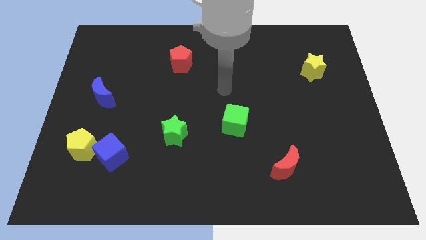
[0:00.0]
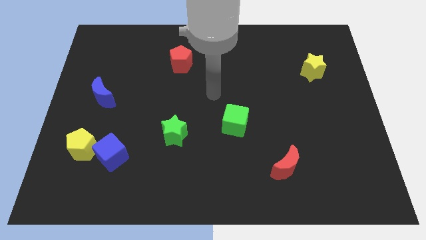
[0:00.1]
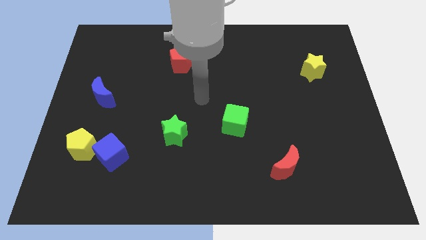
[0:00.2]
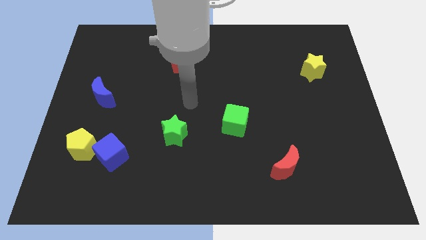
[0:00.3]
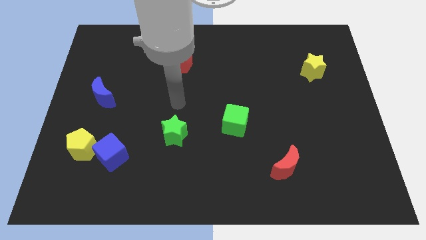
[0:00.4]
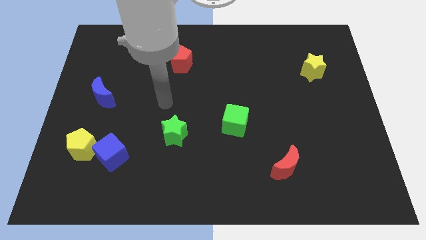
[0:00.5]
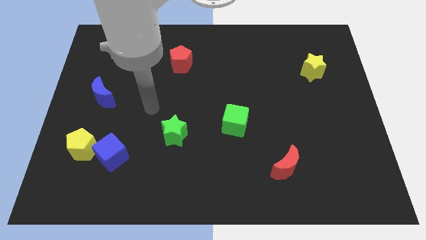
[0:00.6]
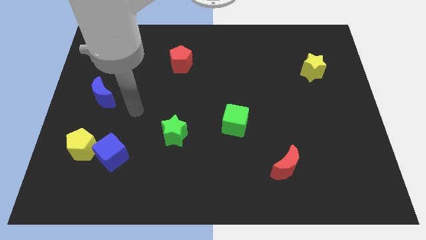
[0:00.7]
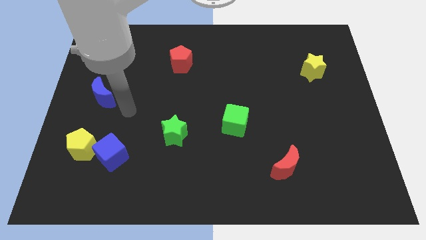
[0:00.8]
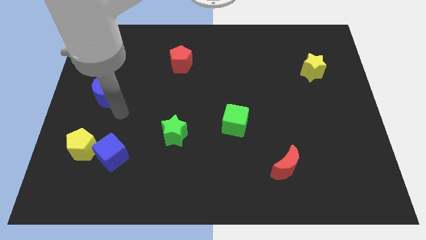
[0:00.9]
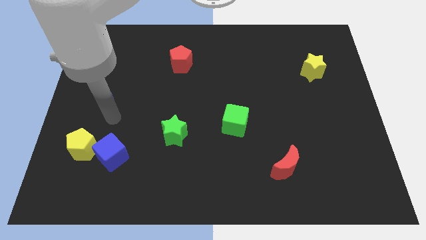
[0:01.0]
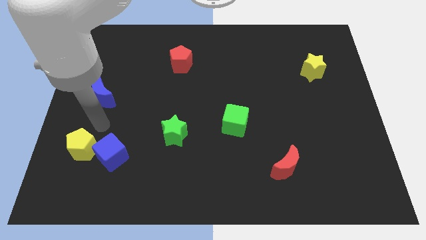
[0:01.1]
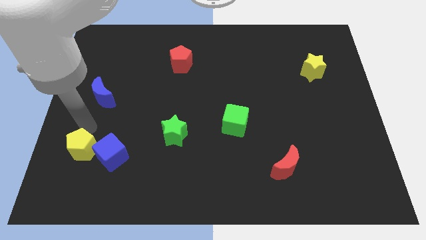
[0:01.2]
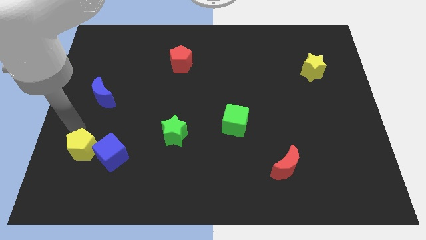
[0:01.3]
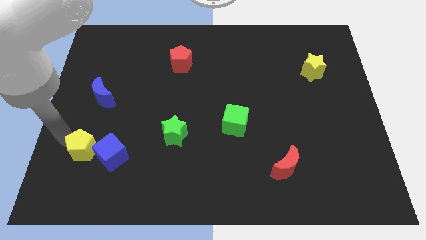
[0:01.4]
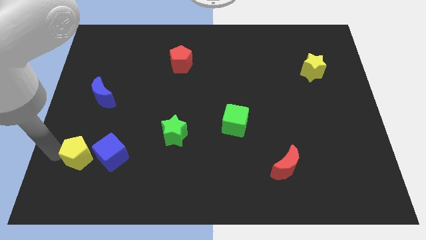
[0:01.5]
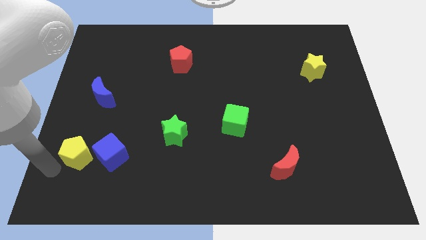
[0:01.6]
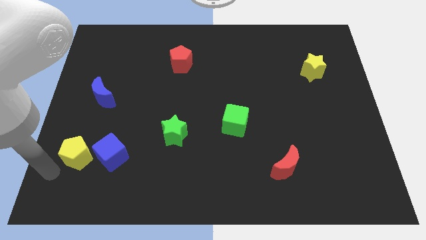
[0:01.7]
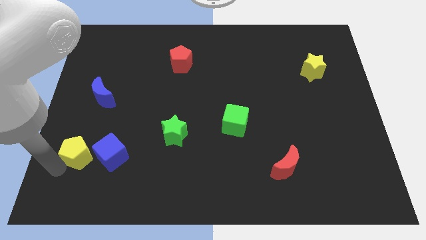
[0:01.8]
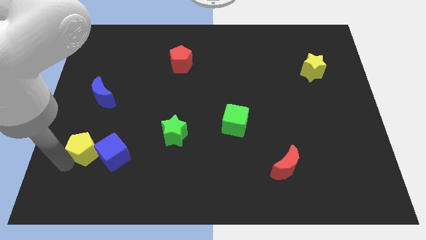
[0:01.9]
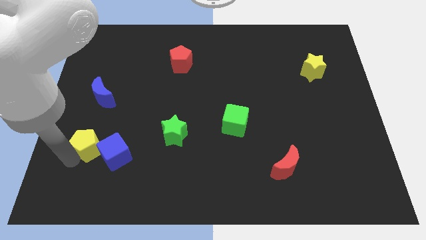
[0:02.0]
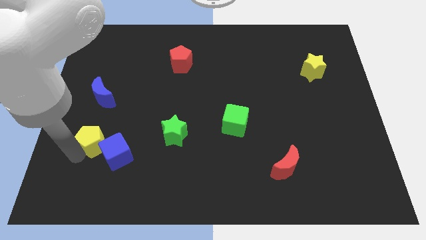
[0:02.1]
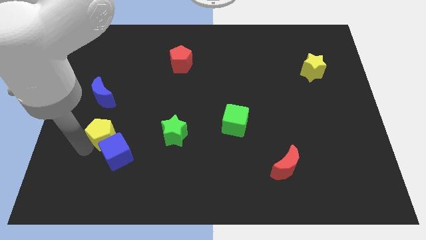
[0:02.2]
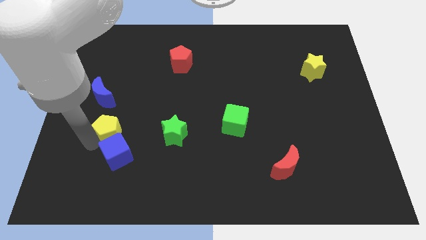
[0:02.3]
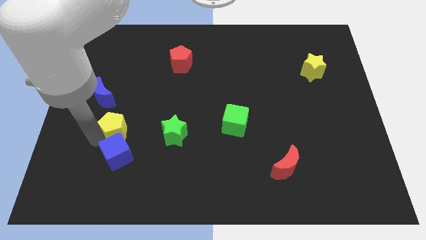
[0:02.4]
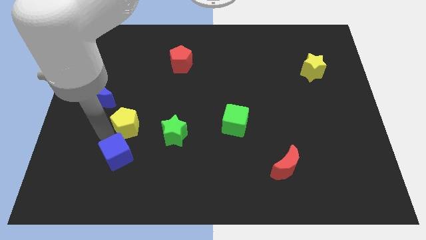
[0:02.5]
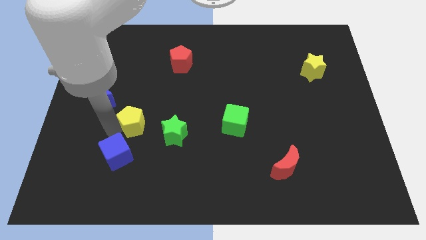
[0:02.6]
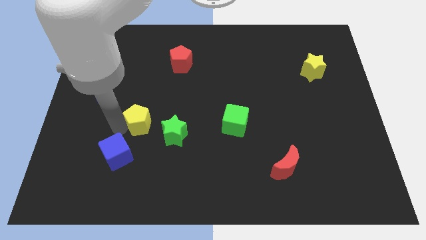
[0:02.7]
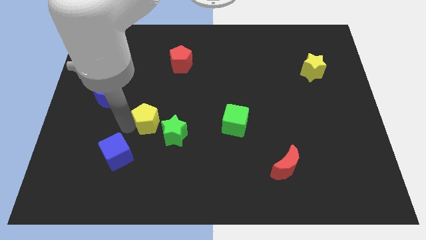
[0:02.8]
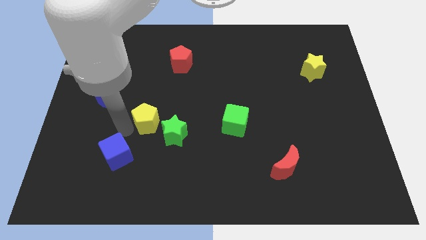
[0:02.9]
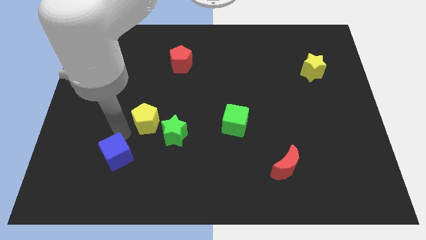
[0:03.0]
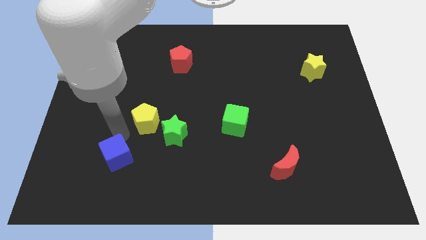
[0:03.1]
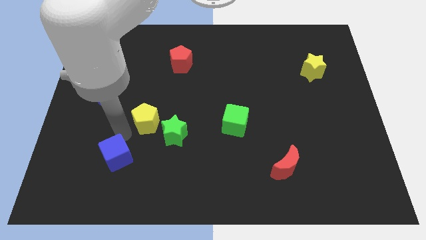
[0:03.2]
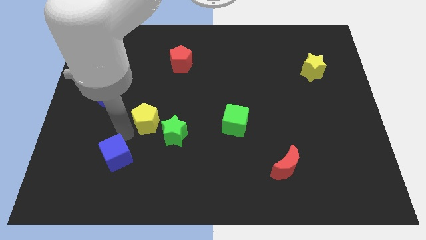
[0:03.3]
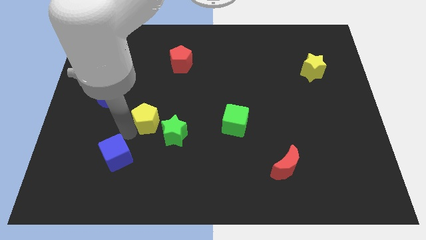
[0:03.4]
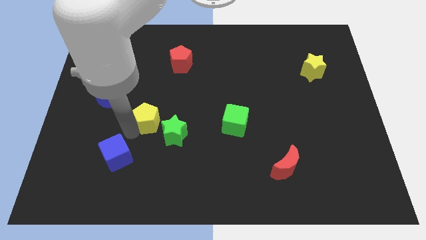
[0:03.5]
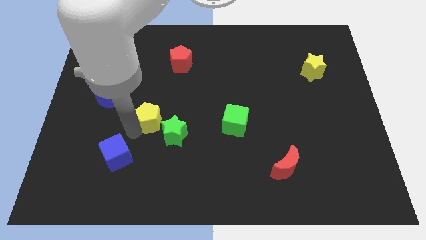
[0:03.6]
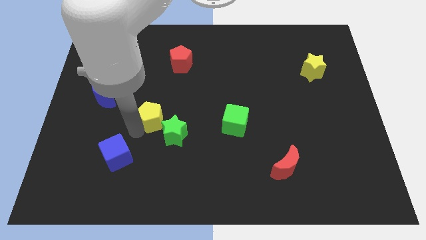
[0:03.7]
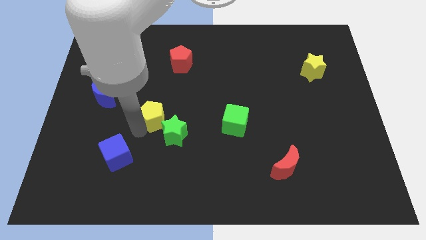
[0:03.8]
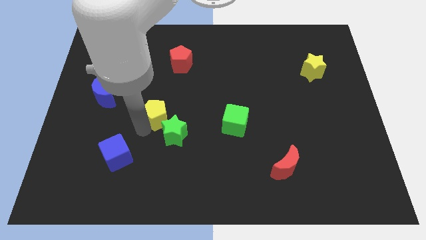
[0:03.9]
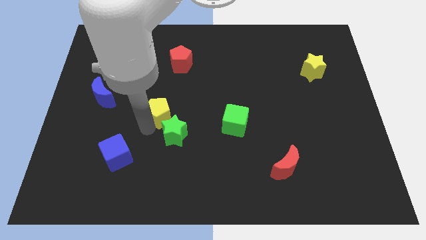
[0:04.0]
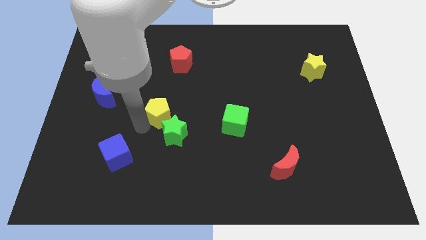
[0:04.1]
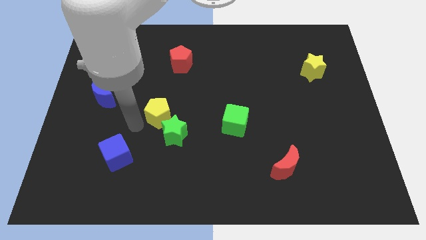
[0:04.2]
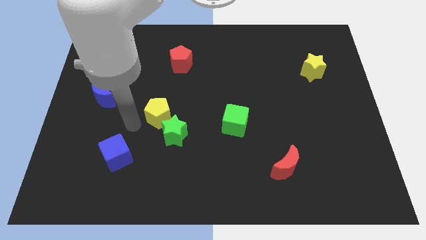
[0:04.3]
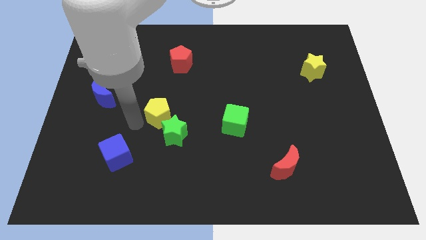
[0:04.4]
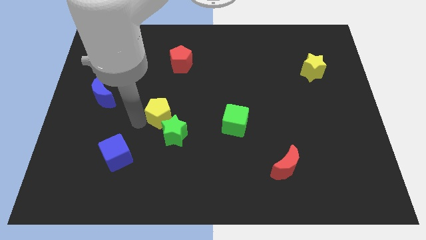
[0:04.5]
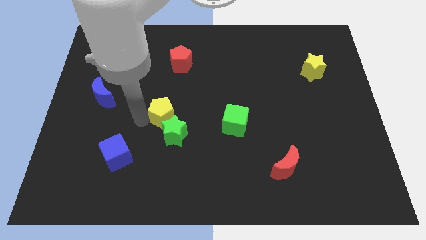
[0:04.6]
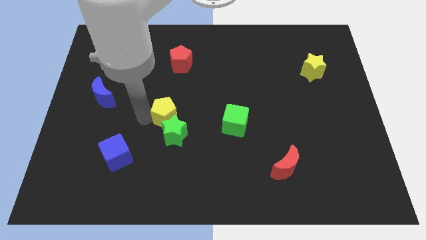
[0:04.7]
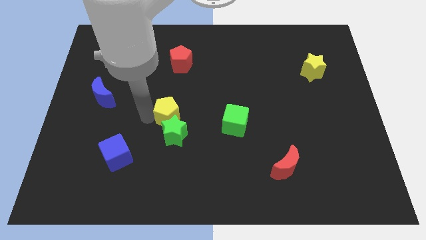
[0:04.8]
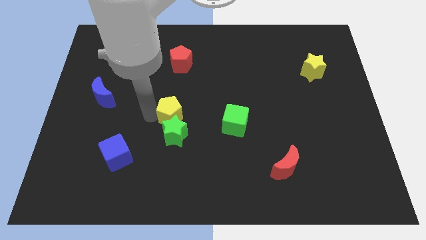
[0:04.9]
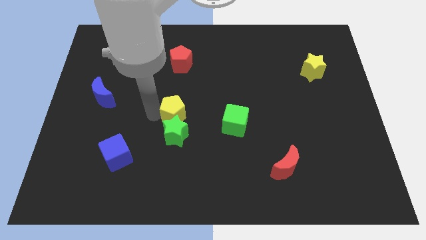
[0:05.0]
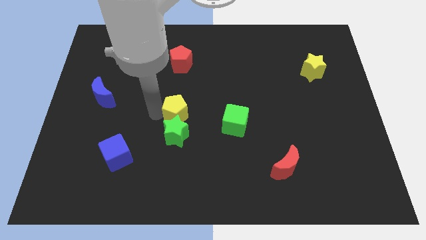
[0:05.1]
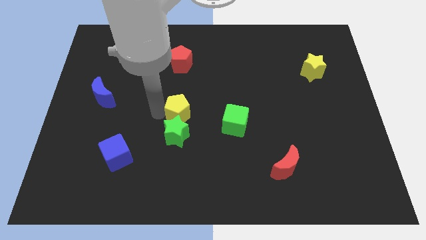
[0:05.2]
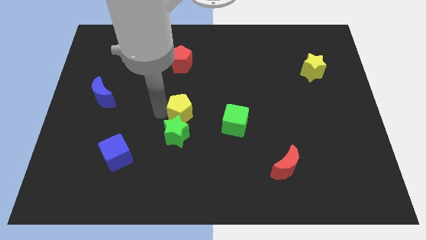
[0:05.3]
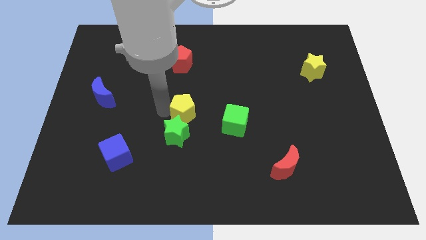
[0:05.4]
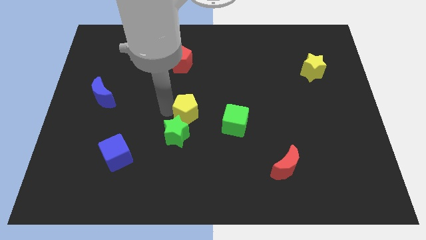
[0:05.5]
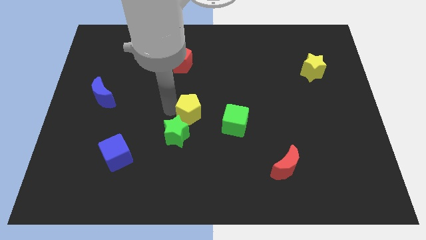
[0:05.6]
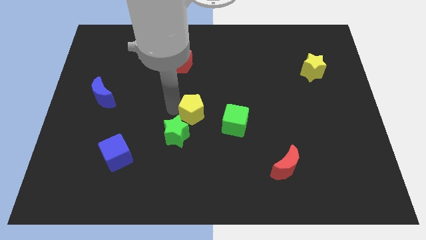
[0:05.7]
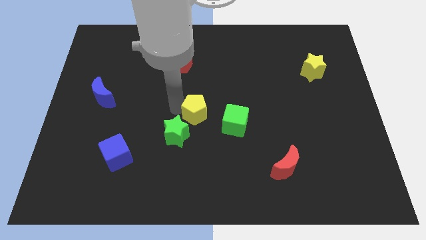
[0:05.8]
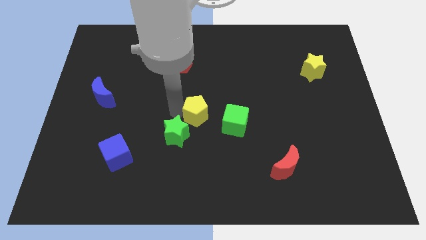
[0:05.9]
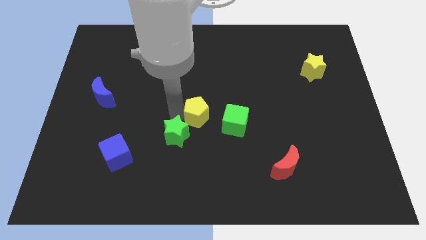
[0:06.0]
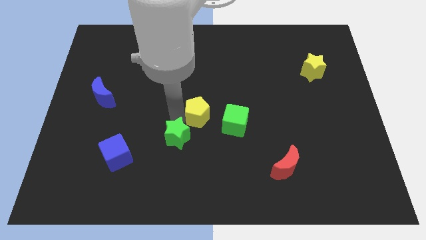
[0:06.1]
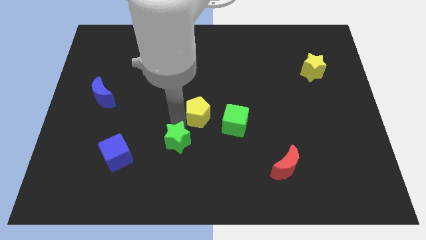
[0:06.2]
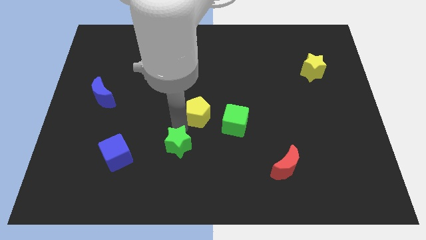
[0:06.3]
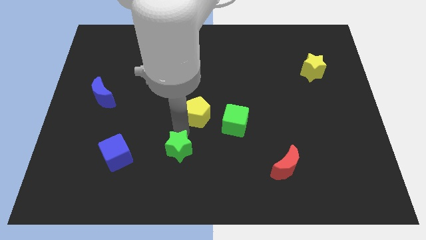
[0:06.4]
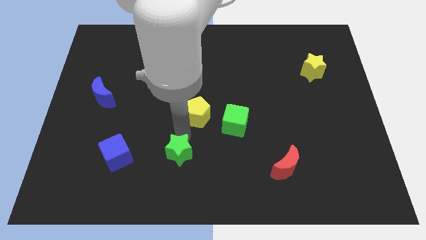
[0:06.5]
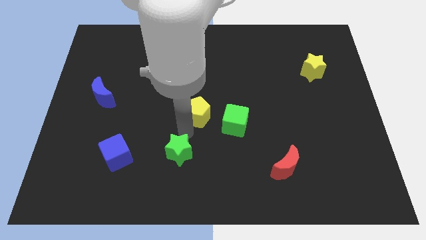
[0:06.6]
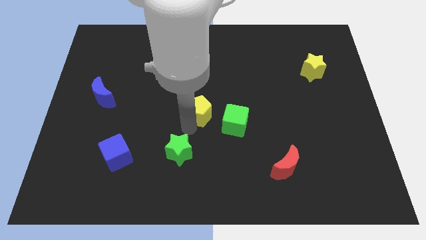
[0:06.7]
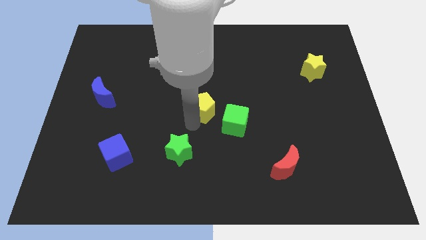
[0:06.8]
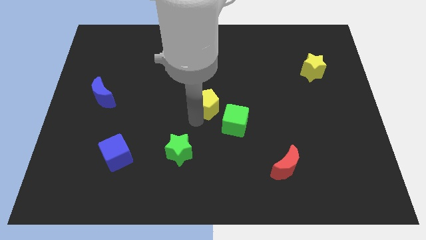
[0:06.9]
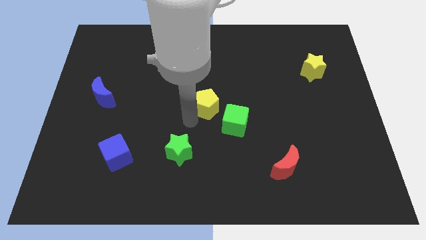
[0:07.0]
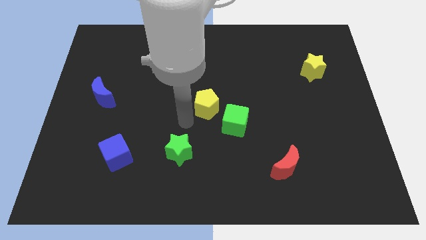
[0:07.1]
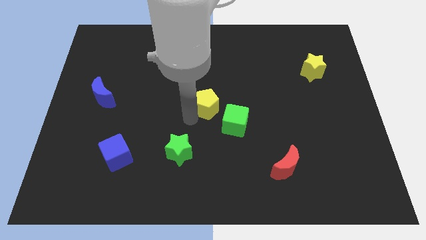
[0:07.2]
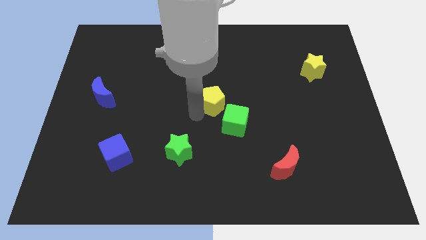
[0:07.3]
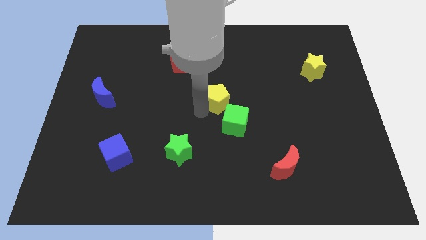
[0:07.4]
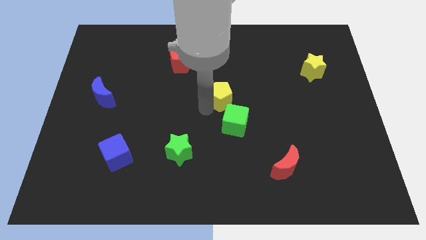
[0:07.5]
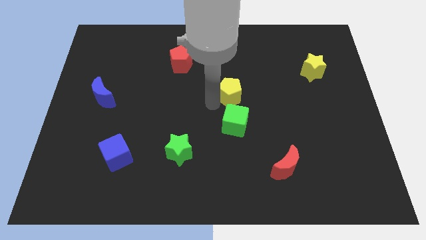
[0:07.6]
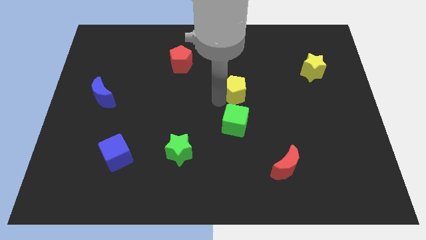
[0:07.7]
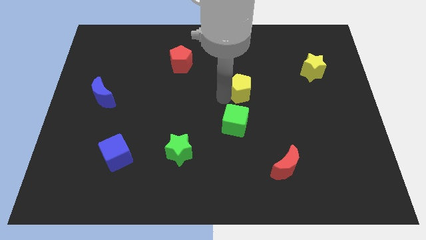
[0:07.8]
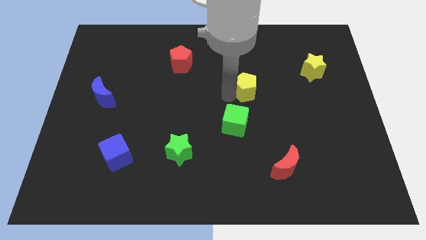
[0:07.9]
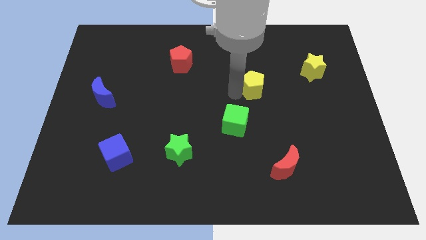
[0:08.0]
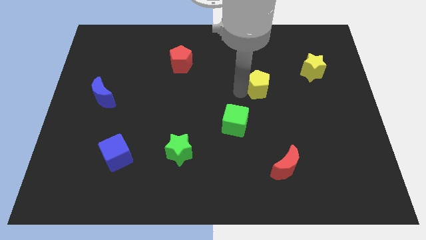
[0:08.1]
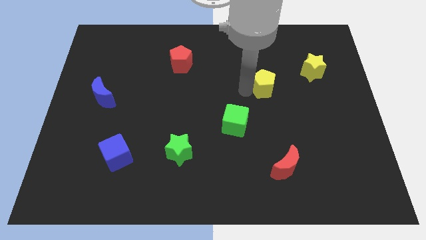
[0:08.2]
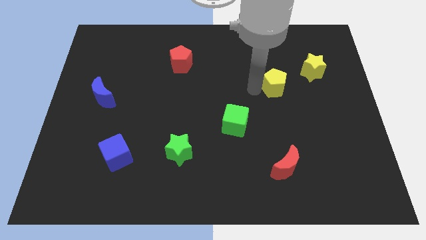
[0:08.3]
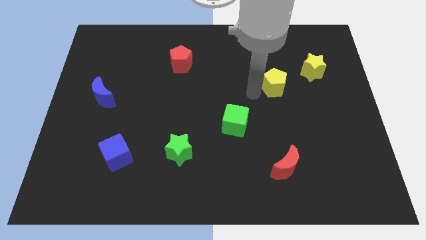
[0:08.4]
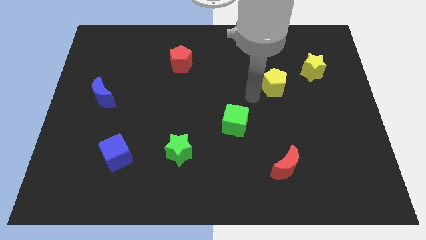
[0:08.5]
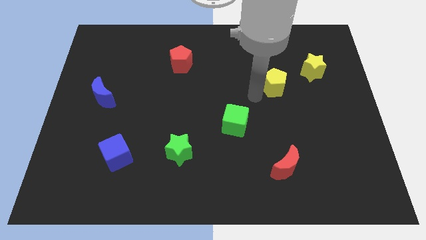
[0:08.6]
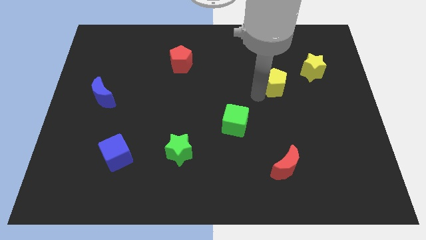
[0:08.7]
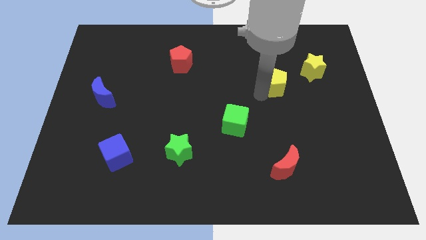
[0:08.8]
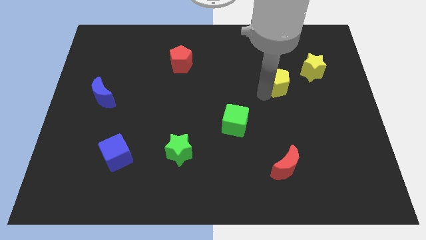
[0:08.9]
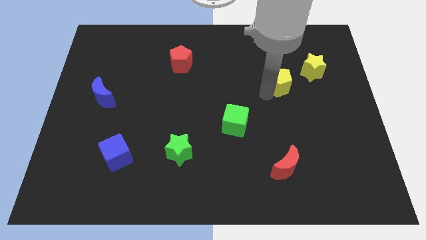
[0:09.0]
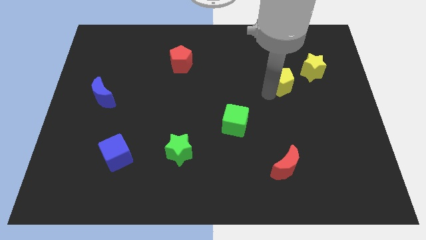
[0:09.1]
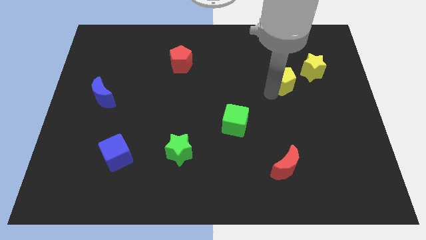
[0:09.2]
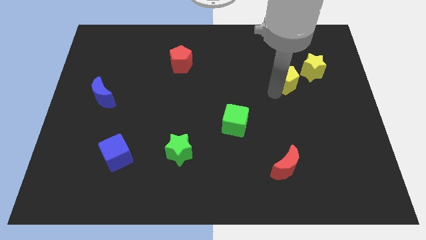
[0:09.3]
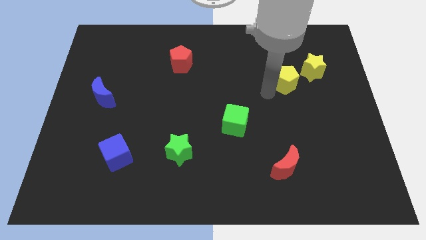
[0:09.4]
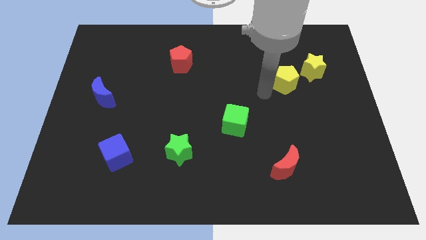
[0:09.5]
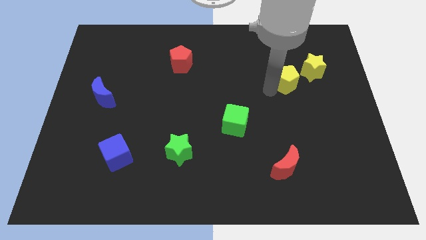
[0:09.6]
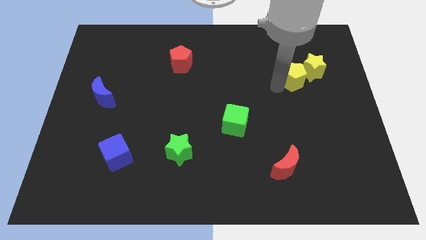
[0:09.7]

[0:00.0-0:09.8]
move the yellow pentagon towards the yellow star
